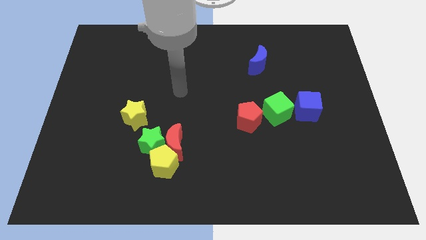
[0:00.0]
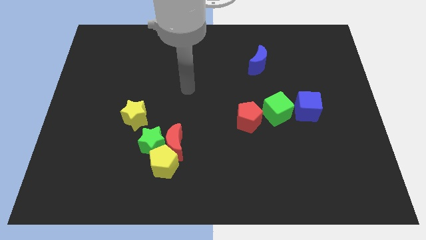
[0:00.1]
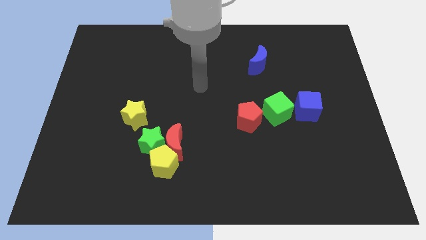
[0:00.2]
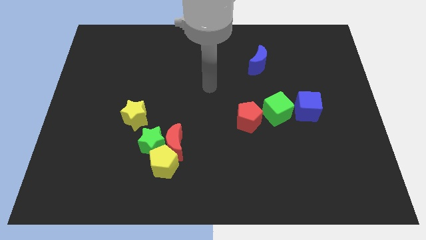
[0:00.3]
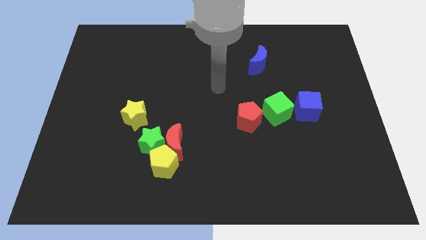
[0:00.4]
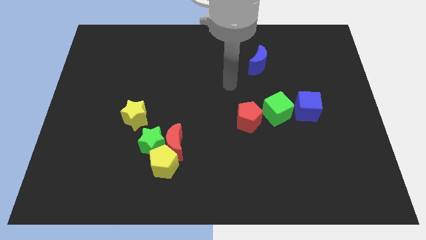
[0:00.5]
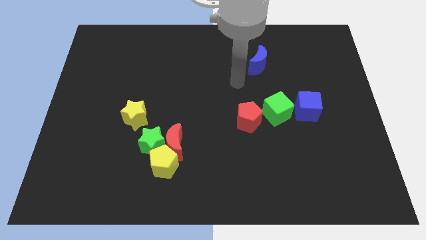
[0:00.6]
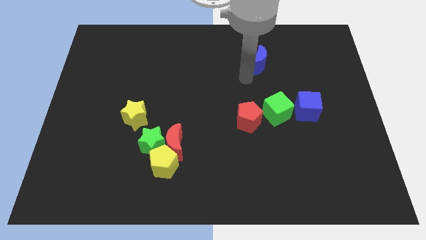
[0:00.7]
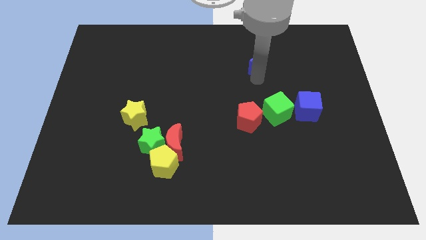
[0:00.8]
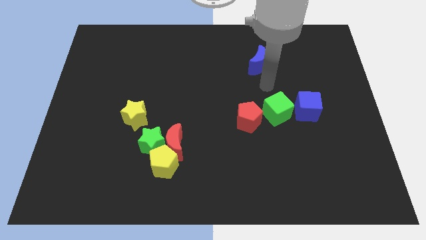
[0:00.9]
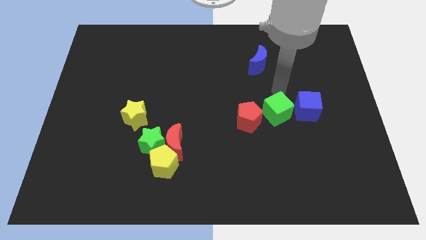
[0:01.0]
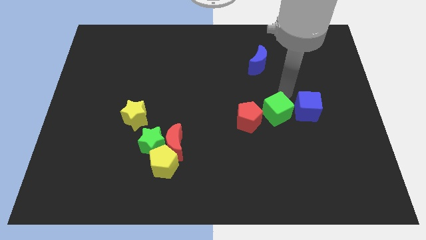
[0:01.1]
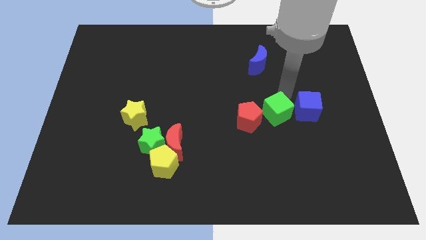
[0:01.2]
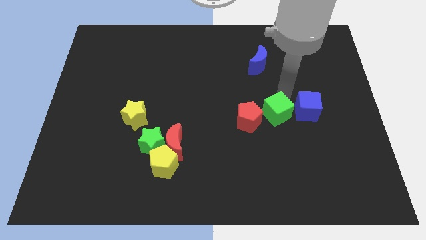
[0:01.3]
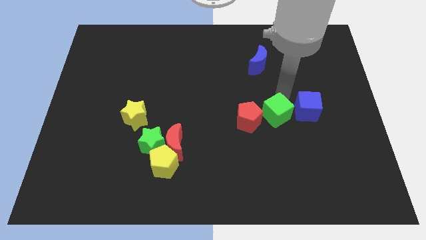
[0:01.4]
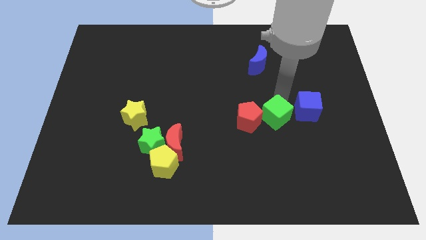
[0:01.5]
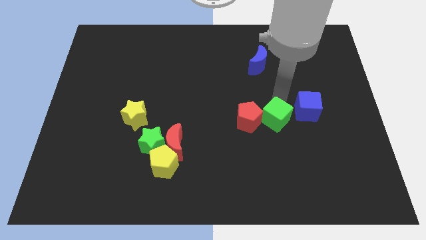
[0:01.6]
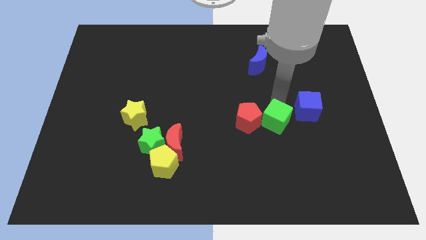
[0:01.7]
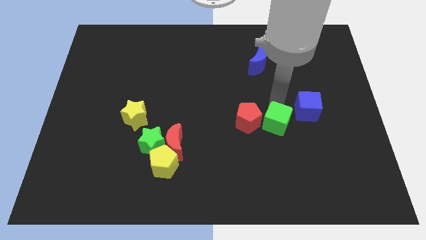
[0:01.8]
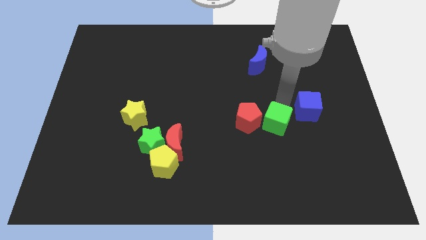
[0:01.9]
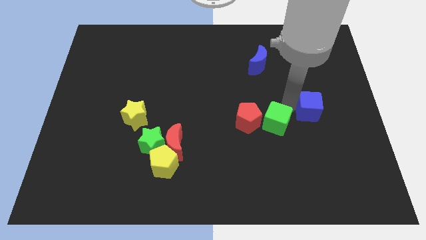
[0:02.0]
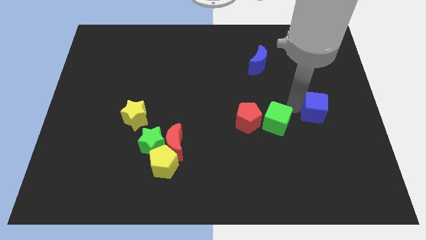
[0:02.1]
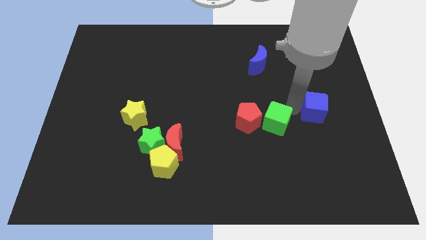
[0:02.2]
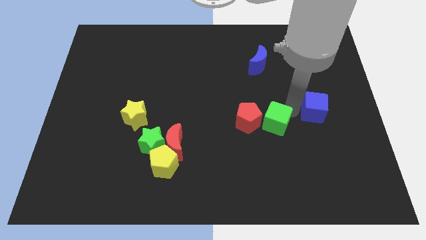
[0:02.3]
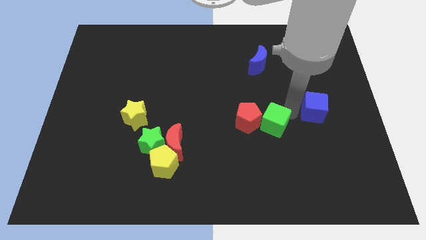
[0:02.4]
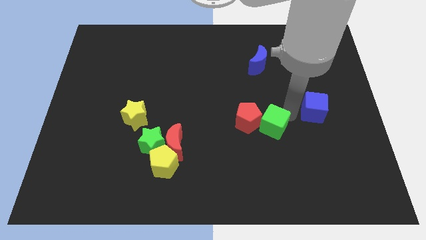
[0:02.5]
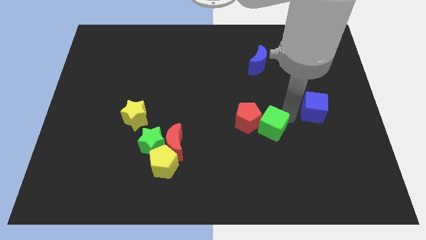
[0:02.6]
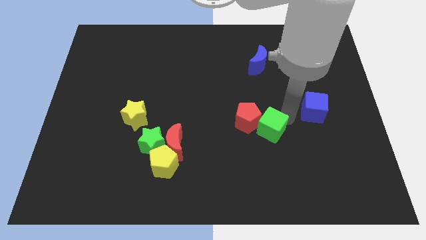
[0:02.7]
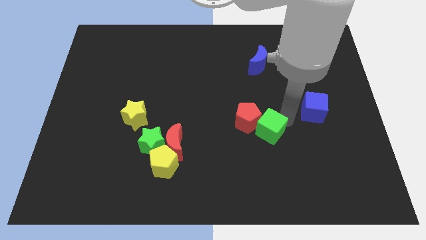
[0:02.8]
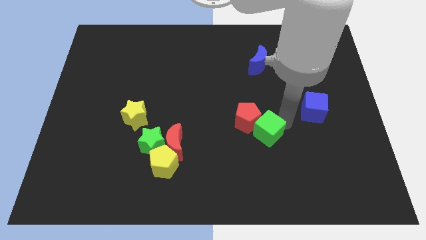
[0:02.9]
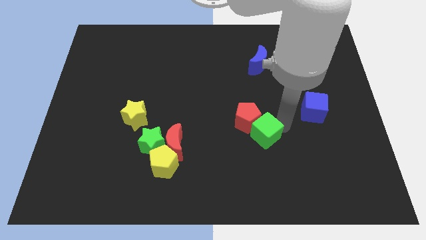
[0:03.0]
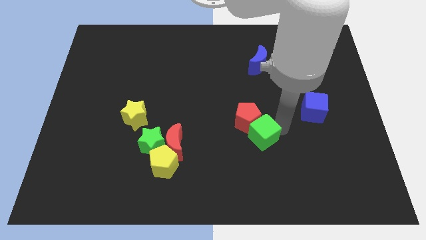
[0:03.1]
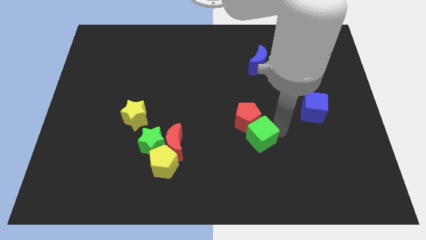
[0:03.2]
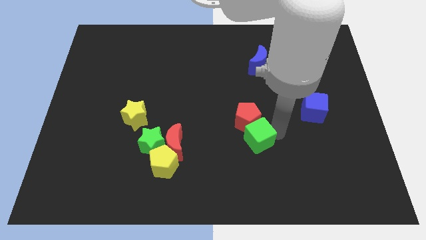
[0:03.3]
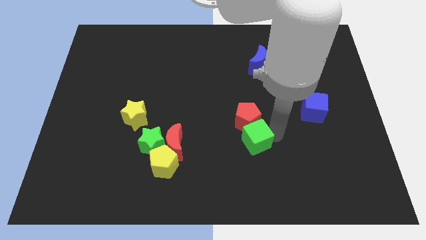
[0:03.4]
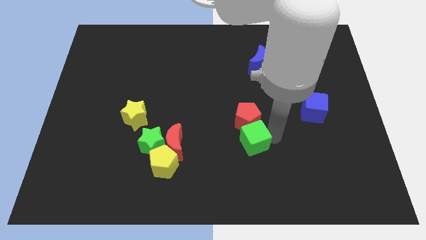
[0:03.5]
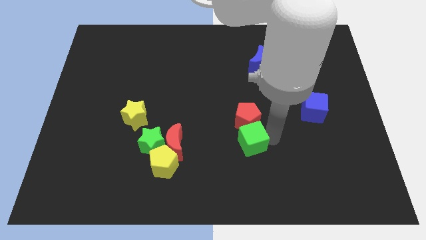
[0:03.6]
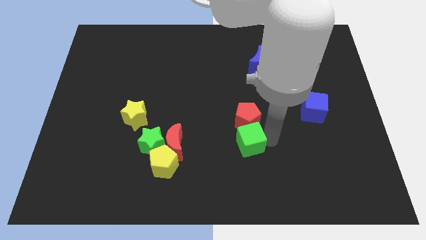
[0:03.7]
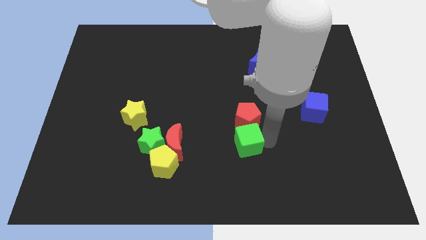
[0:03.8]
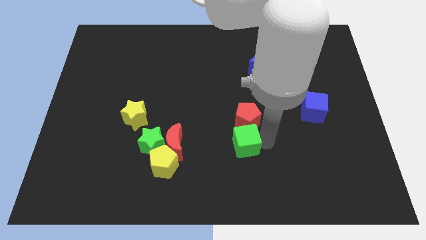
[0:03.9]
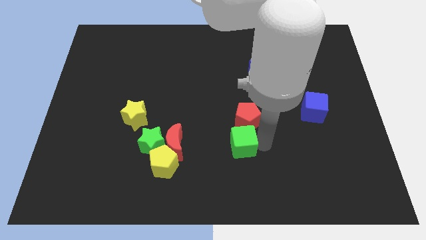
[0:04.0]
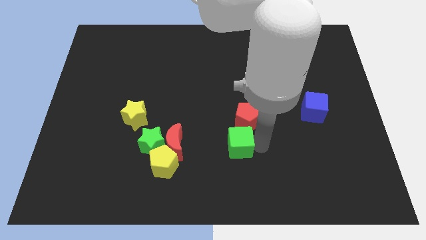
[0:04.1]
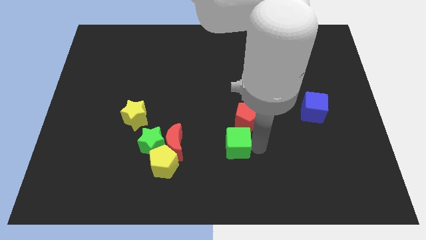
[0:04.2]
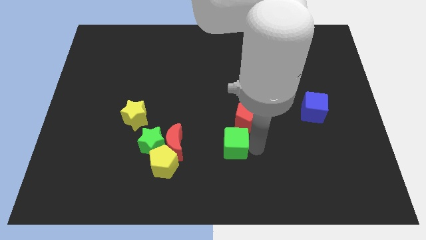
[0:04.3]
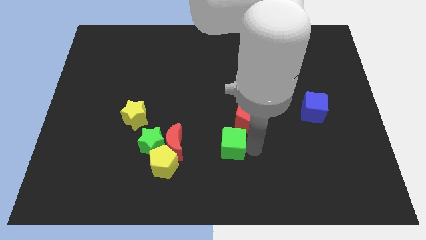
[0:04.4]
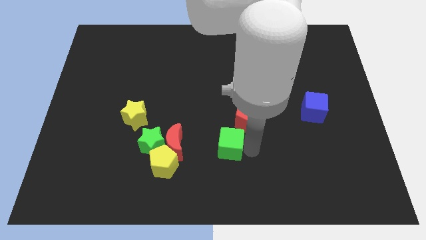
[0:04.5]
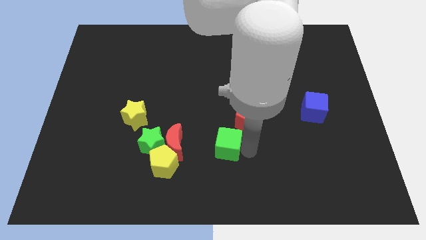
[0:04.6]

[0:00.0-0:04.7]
slide the green cube right of the green star

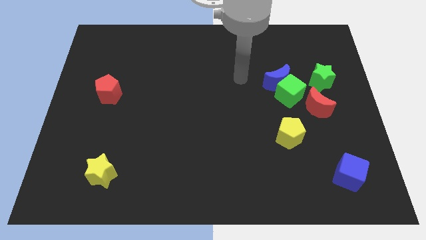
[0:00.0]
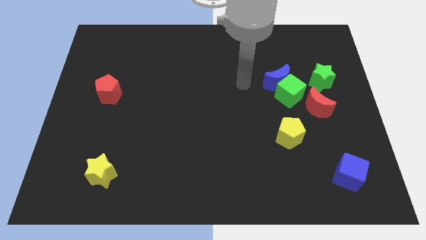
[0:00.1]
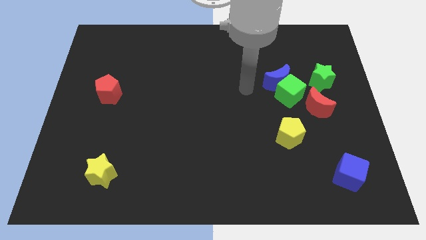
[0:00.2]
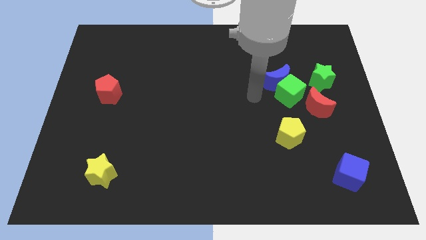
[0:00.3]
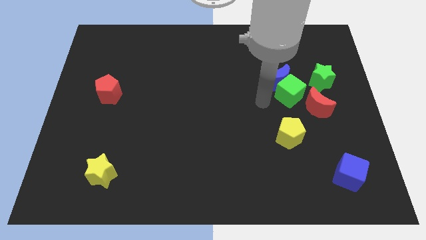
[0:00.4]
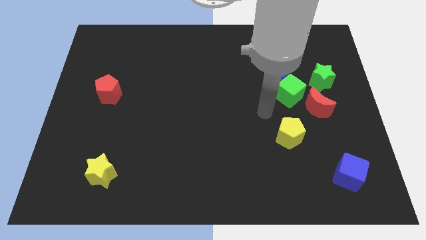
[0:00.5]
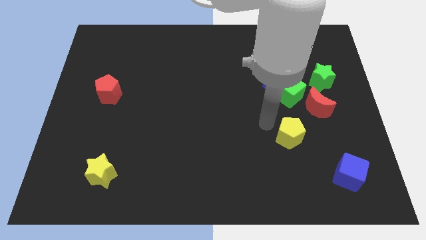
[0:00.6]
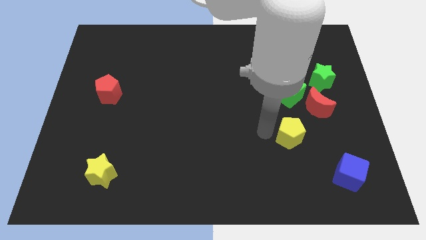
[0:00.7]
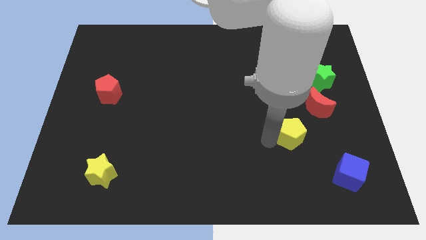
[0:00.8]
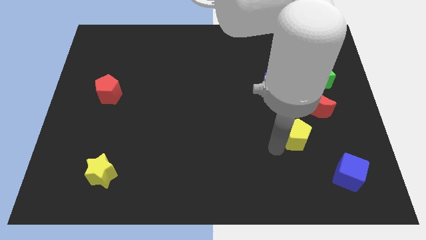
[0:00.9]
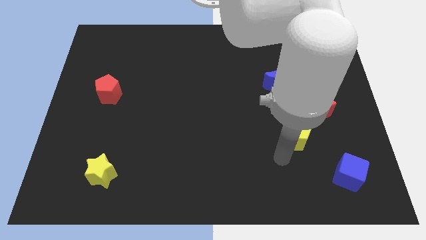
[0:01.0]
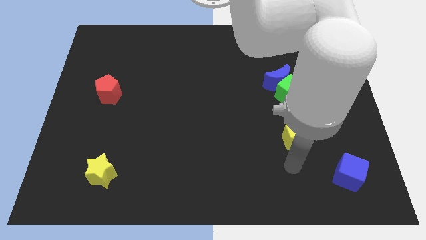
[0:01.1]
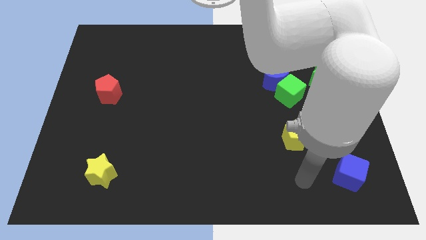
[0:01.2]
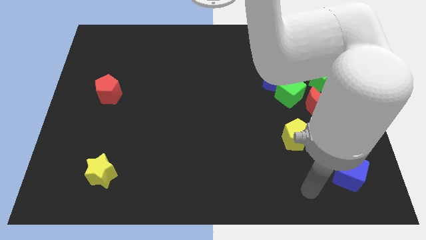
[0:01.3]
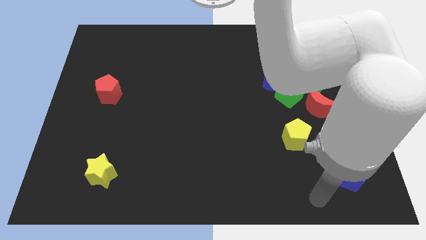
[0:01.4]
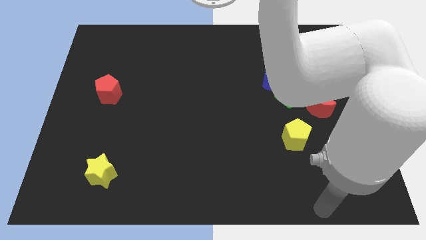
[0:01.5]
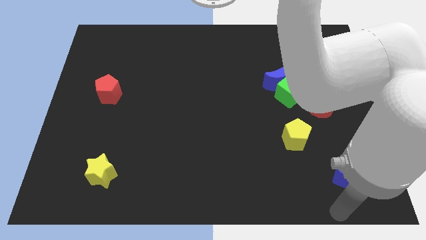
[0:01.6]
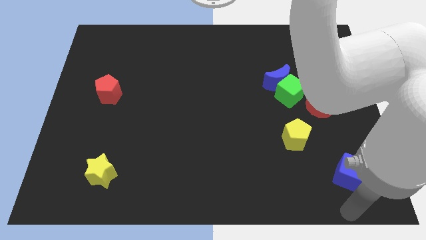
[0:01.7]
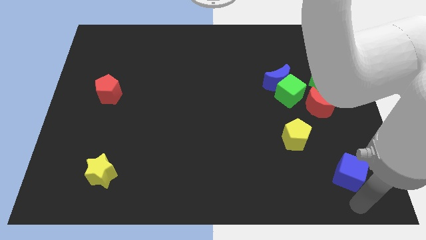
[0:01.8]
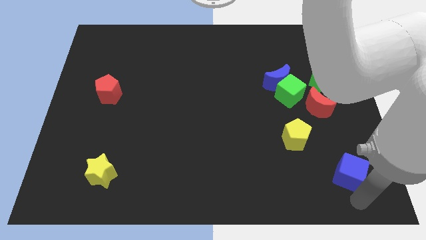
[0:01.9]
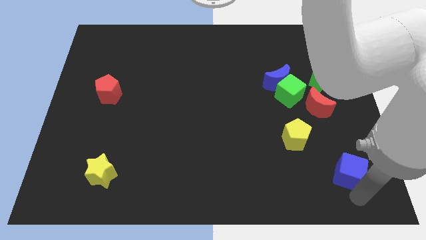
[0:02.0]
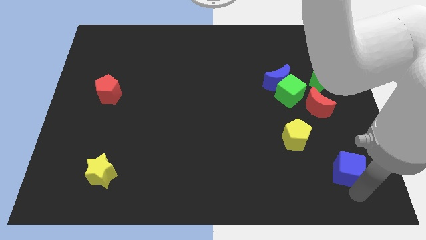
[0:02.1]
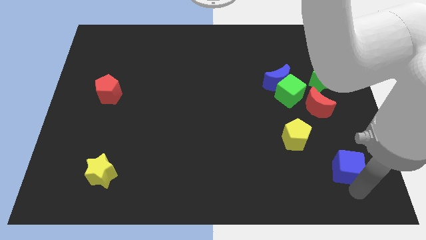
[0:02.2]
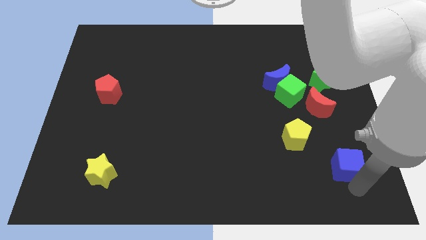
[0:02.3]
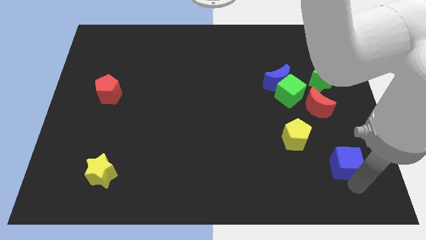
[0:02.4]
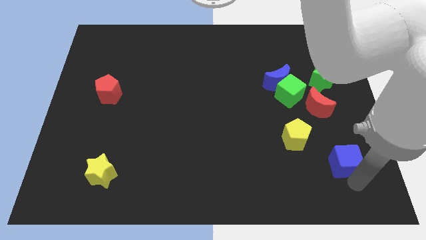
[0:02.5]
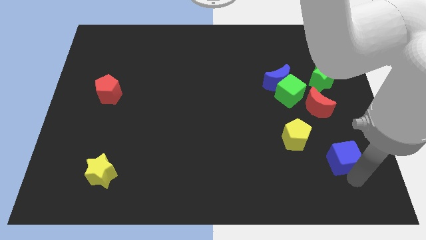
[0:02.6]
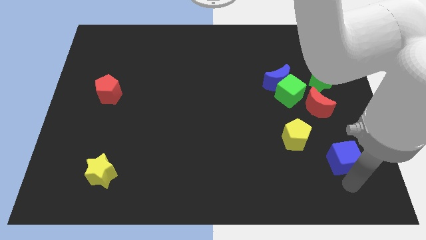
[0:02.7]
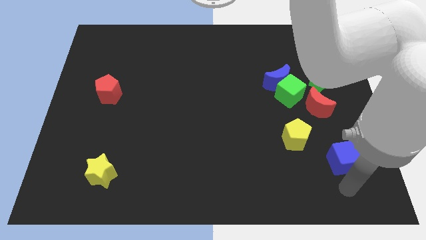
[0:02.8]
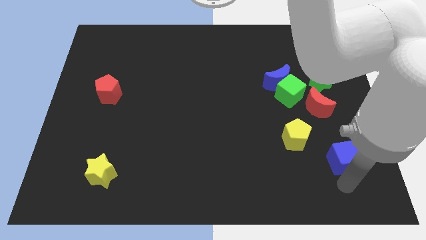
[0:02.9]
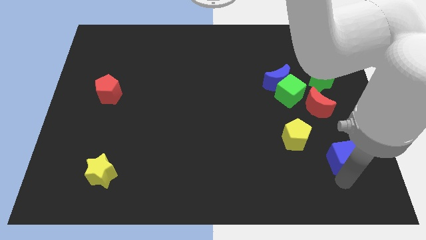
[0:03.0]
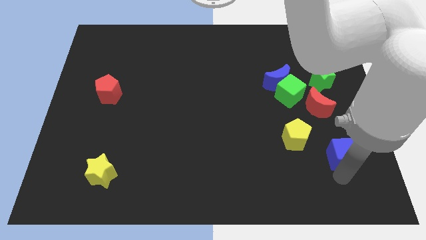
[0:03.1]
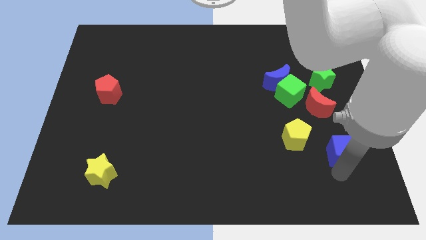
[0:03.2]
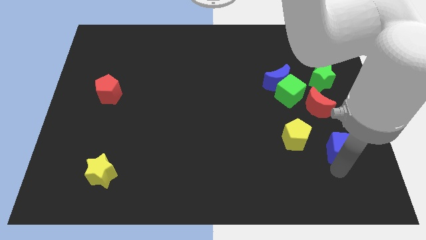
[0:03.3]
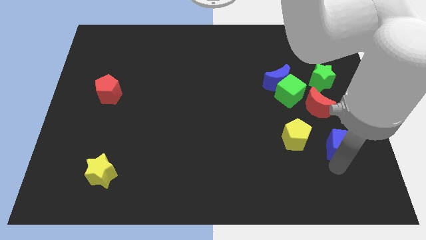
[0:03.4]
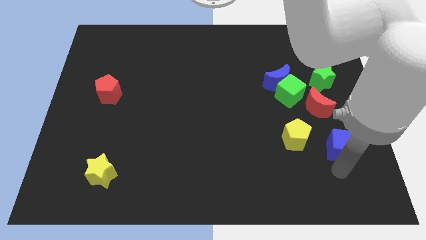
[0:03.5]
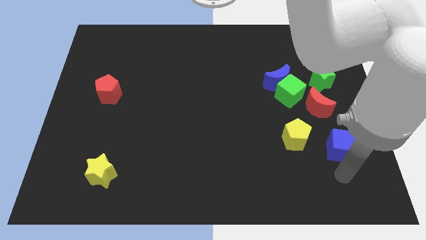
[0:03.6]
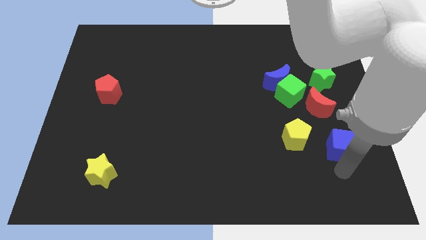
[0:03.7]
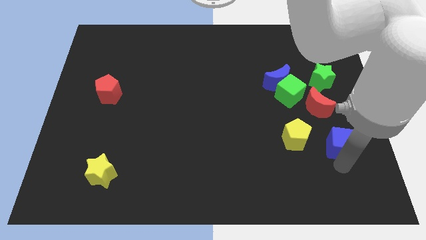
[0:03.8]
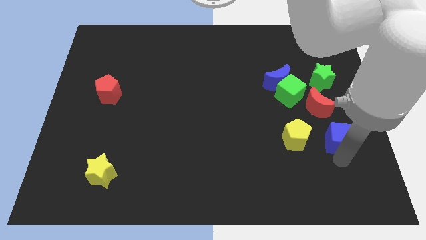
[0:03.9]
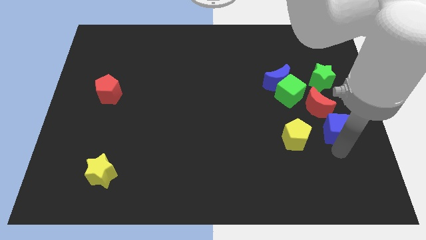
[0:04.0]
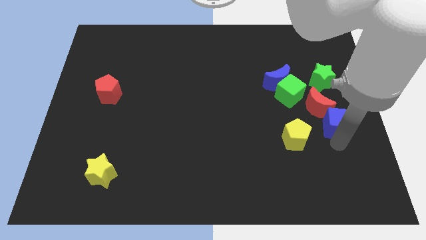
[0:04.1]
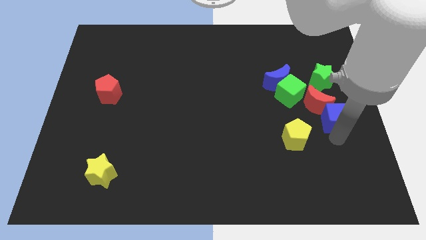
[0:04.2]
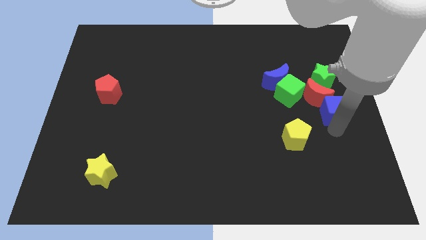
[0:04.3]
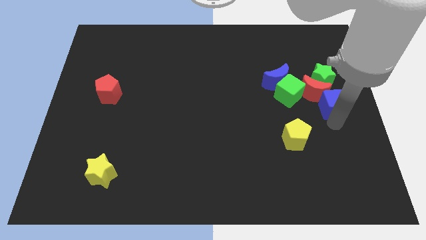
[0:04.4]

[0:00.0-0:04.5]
put the blue cube to the right of the green cube
